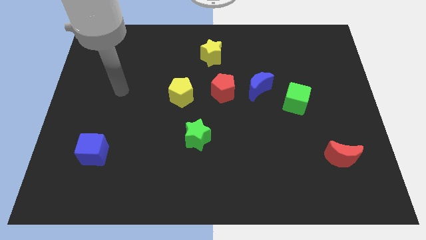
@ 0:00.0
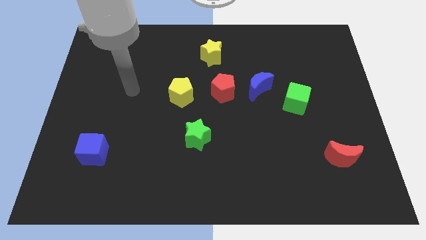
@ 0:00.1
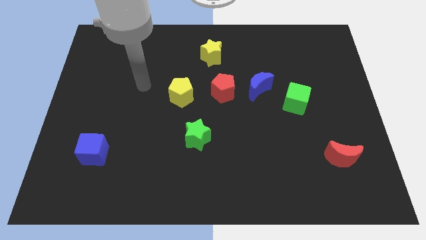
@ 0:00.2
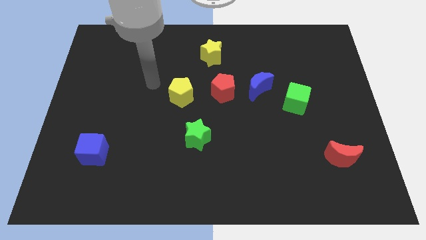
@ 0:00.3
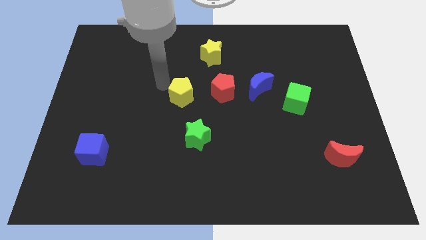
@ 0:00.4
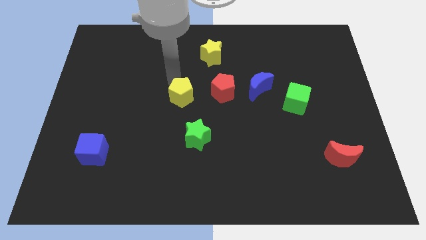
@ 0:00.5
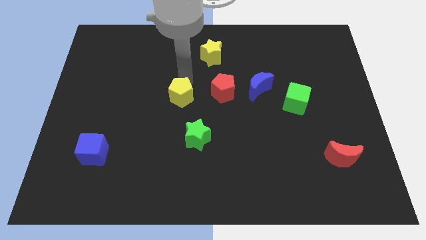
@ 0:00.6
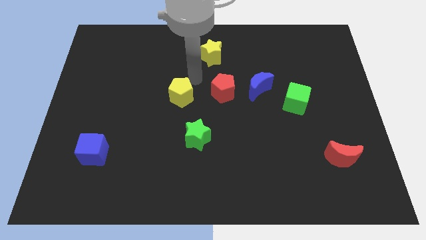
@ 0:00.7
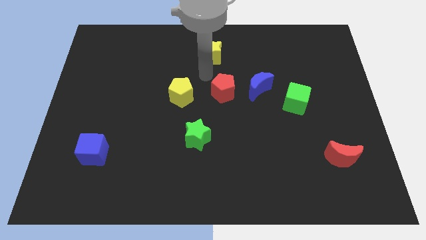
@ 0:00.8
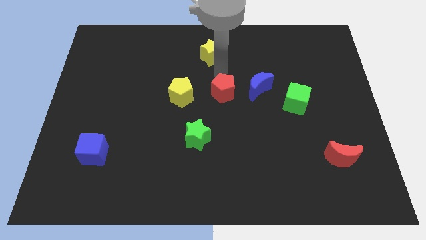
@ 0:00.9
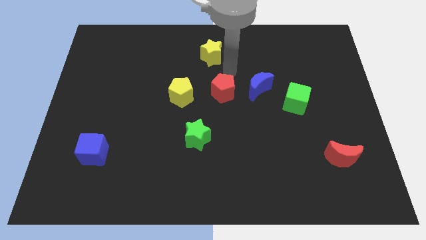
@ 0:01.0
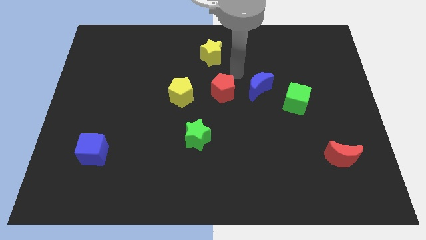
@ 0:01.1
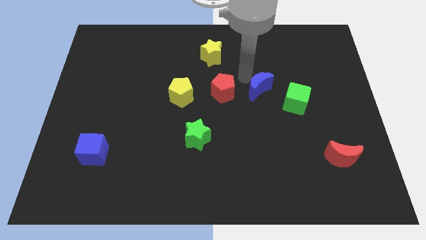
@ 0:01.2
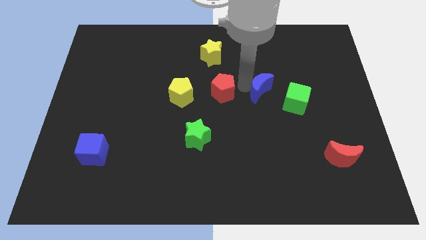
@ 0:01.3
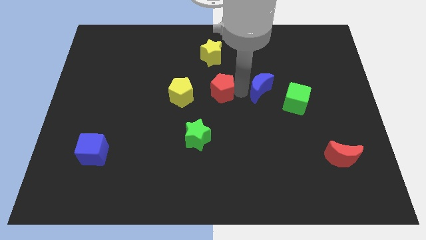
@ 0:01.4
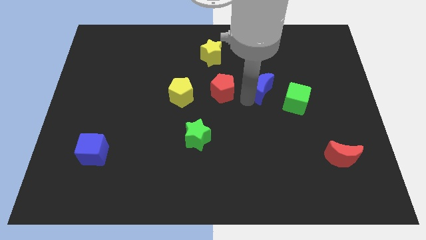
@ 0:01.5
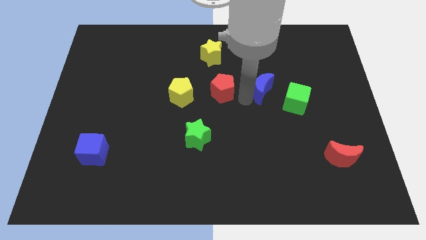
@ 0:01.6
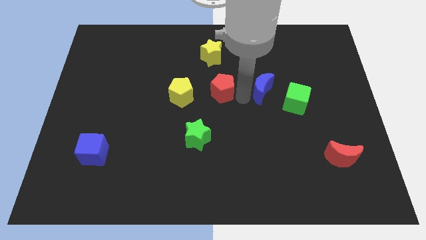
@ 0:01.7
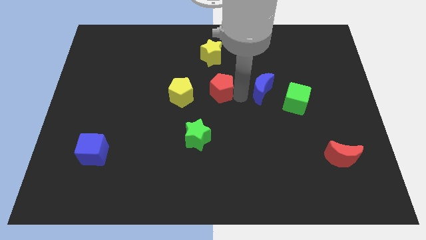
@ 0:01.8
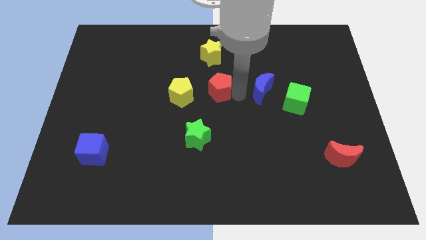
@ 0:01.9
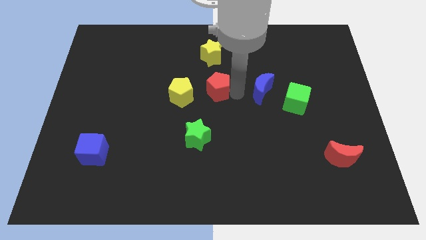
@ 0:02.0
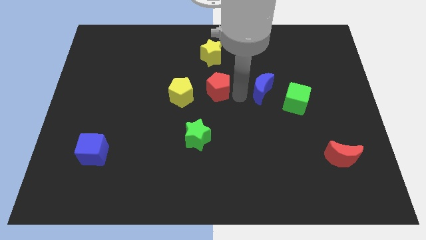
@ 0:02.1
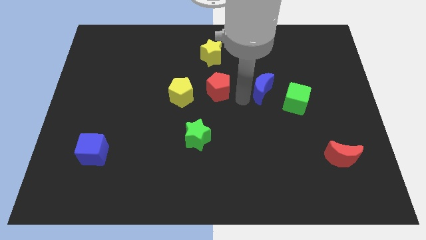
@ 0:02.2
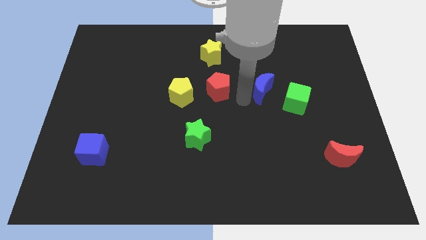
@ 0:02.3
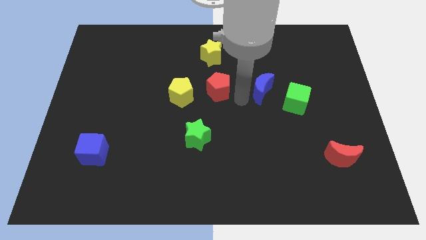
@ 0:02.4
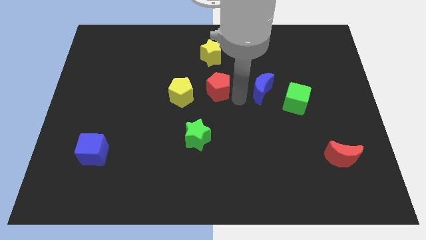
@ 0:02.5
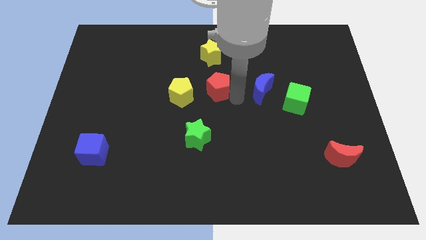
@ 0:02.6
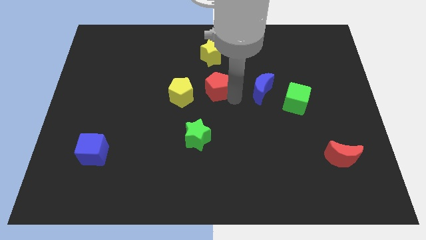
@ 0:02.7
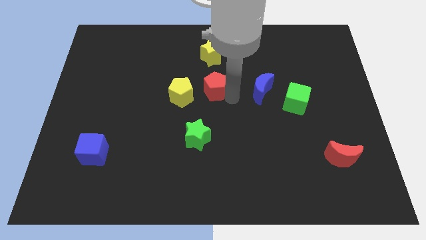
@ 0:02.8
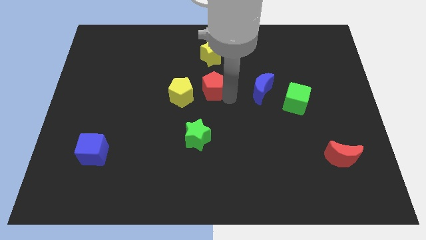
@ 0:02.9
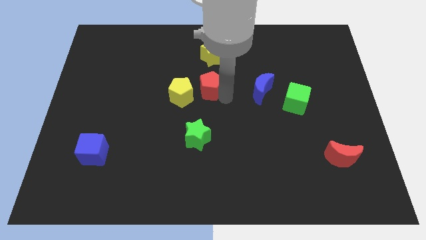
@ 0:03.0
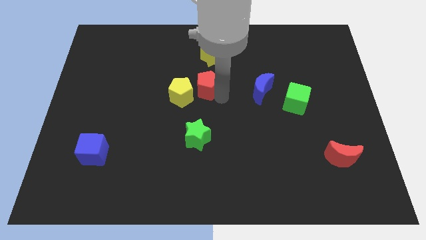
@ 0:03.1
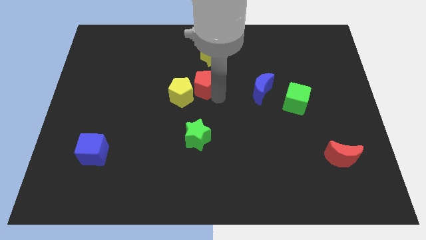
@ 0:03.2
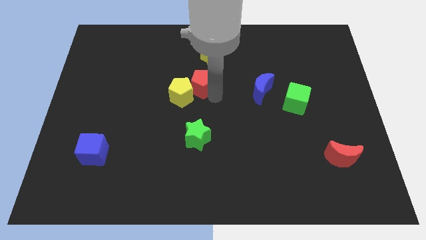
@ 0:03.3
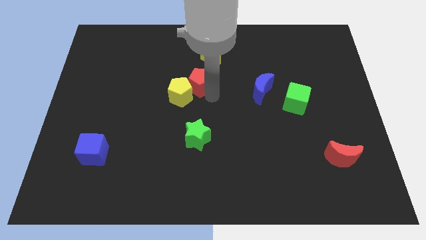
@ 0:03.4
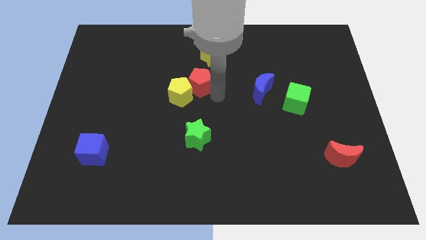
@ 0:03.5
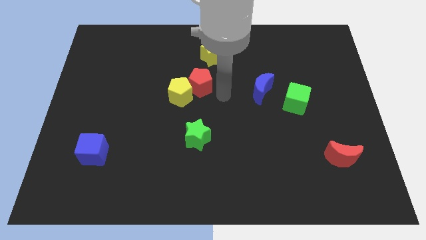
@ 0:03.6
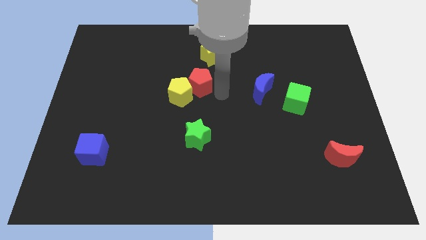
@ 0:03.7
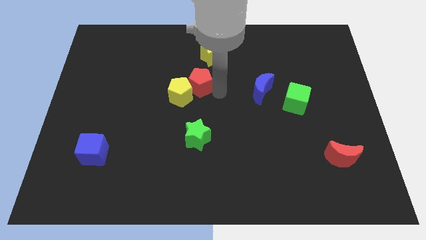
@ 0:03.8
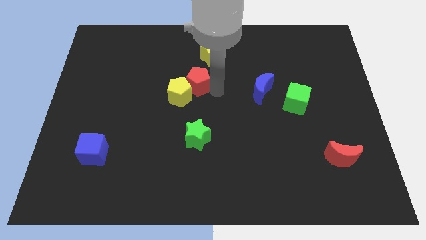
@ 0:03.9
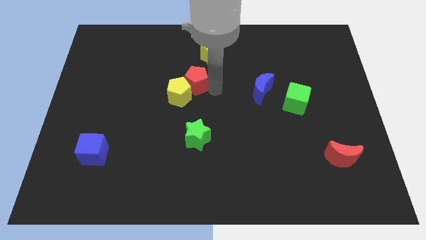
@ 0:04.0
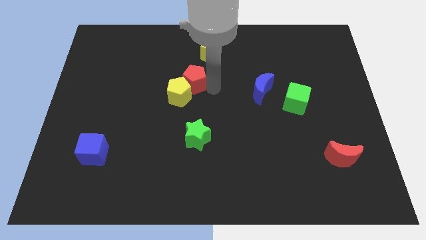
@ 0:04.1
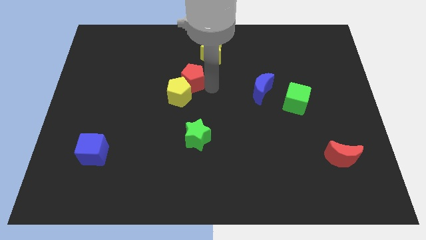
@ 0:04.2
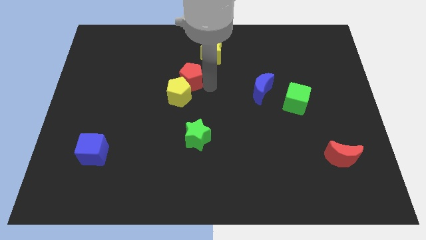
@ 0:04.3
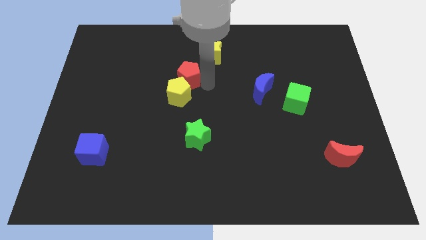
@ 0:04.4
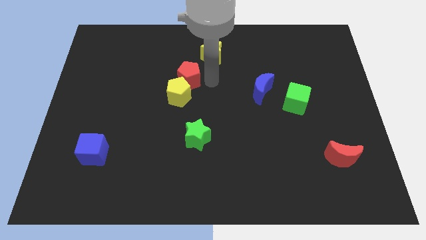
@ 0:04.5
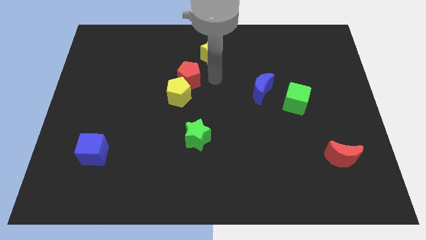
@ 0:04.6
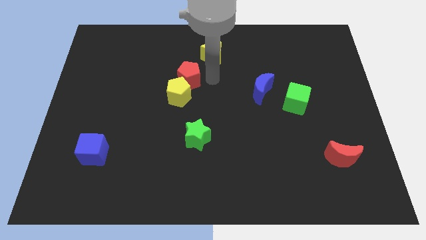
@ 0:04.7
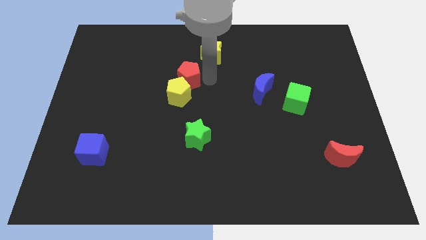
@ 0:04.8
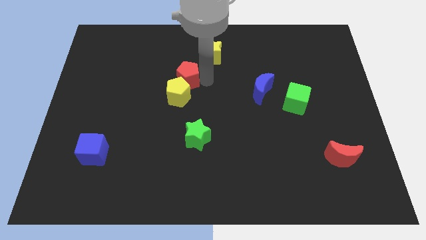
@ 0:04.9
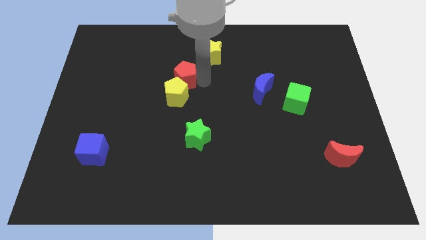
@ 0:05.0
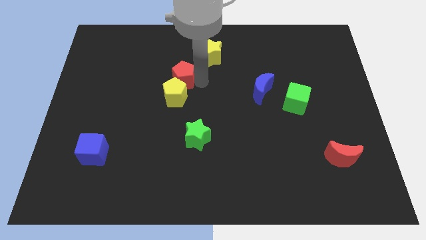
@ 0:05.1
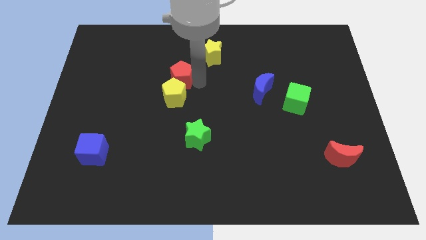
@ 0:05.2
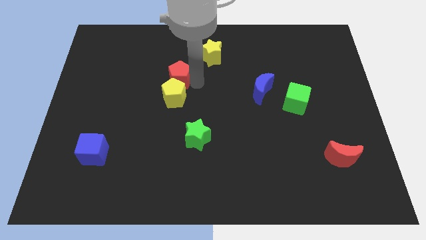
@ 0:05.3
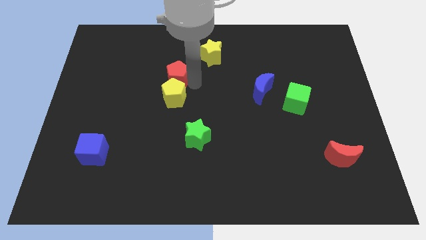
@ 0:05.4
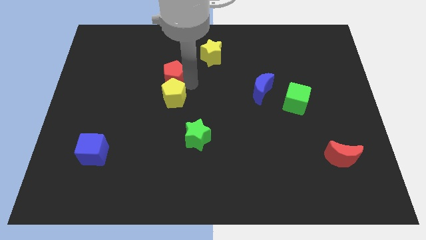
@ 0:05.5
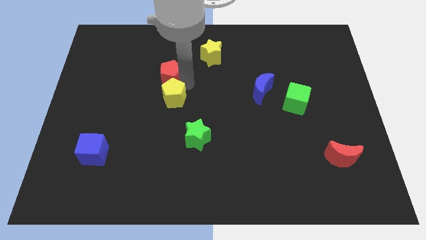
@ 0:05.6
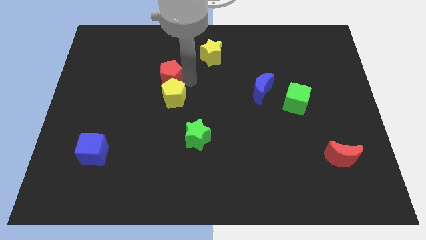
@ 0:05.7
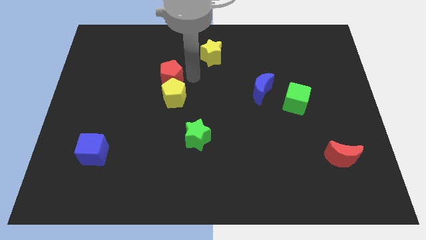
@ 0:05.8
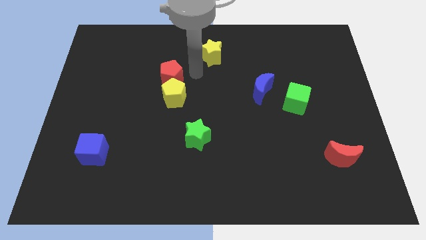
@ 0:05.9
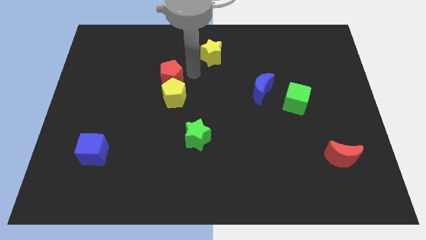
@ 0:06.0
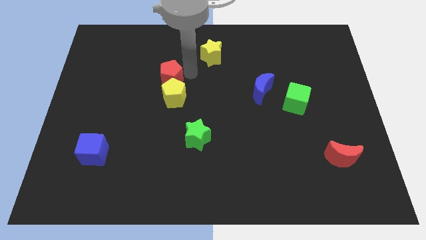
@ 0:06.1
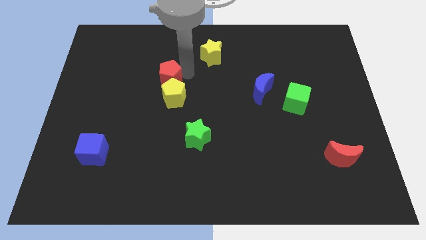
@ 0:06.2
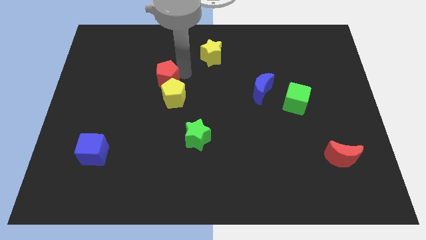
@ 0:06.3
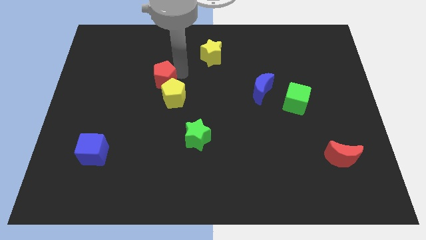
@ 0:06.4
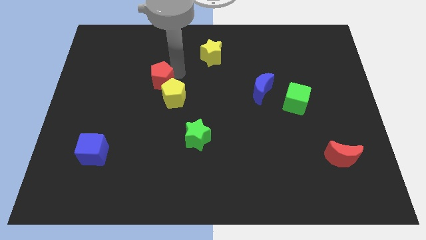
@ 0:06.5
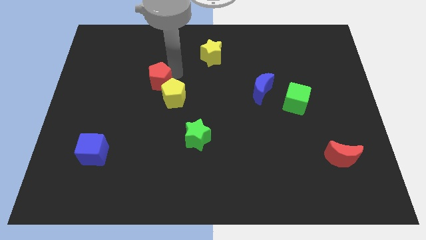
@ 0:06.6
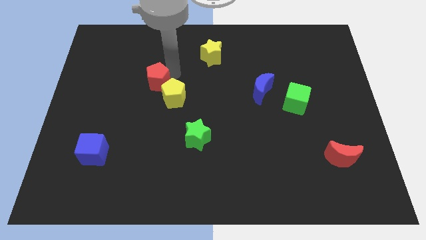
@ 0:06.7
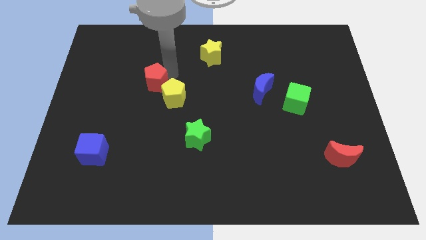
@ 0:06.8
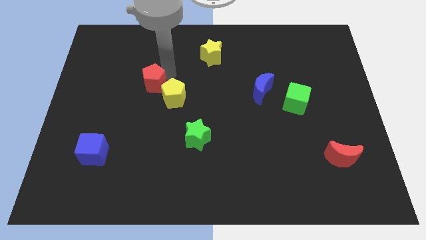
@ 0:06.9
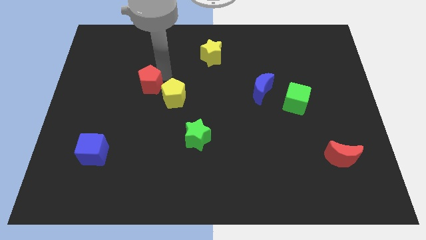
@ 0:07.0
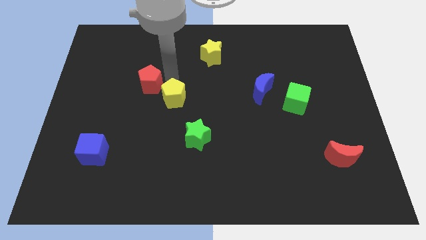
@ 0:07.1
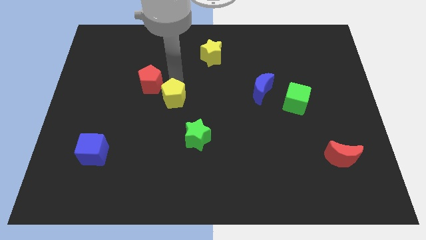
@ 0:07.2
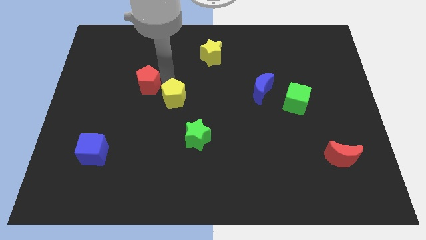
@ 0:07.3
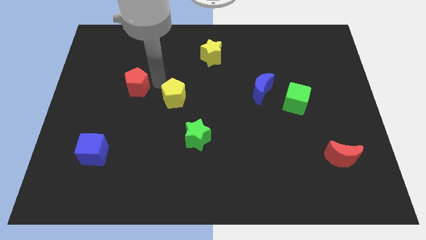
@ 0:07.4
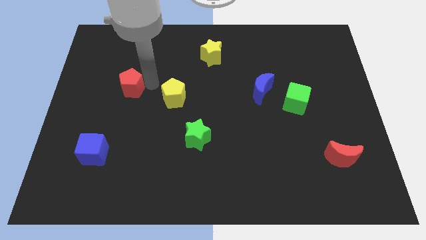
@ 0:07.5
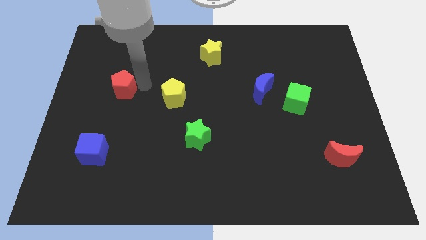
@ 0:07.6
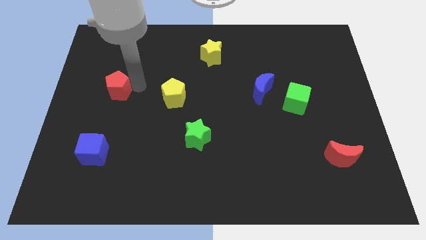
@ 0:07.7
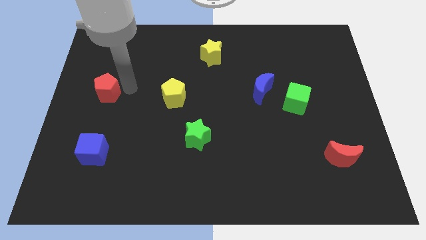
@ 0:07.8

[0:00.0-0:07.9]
put the red pentagon to the center left
